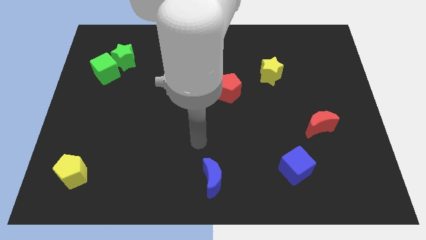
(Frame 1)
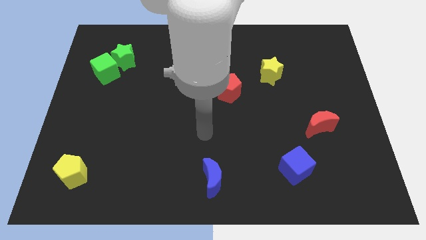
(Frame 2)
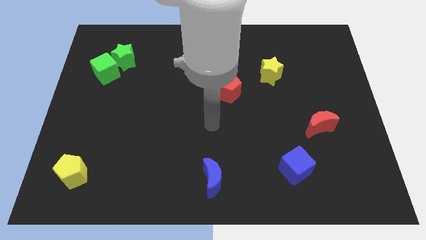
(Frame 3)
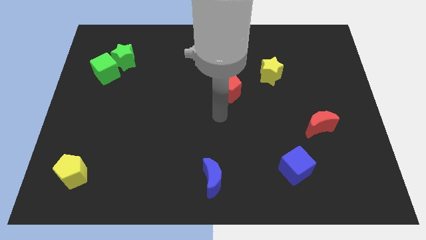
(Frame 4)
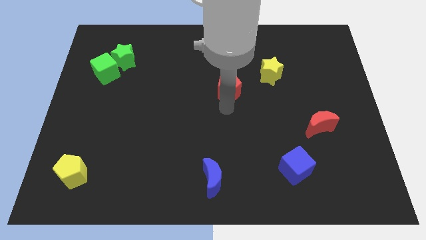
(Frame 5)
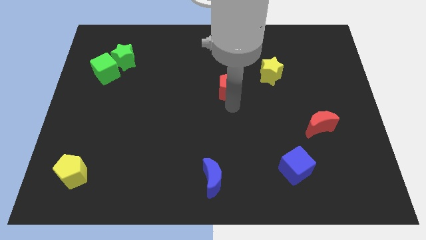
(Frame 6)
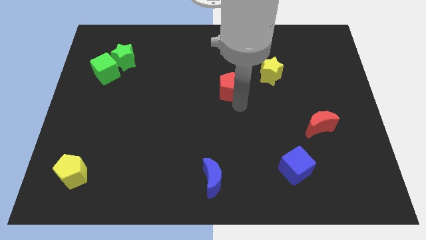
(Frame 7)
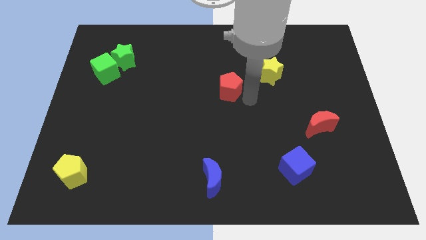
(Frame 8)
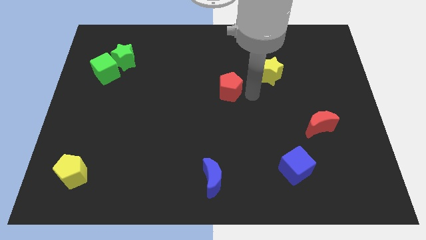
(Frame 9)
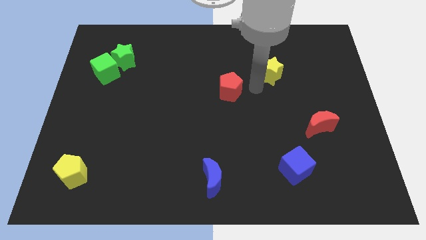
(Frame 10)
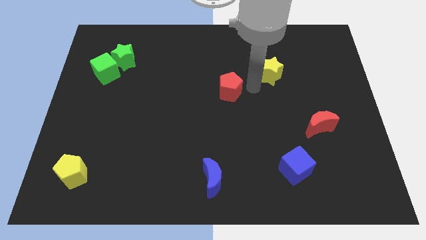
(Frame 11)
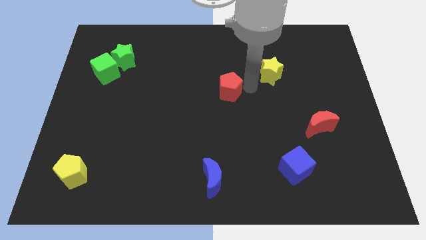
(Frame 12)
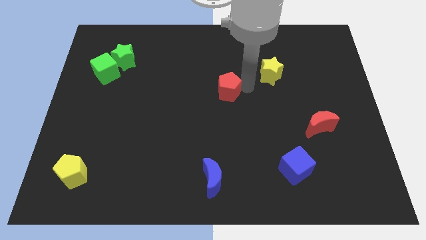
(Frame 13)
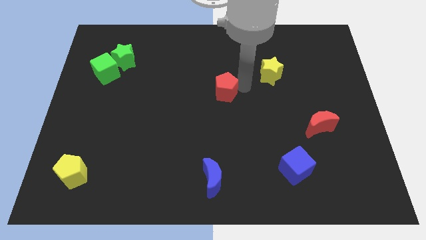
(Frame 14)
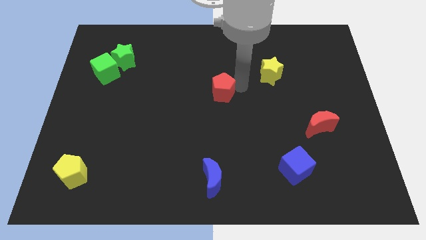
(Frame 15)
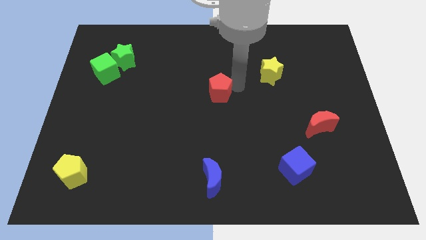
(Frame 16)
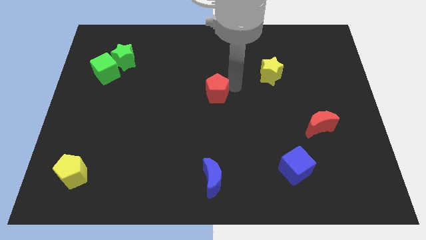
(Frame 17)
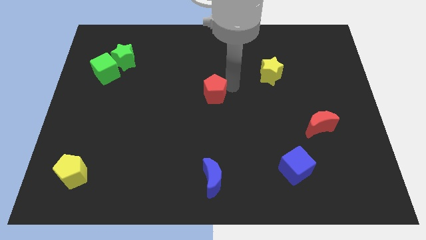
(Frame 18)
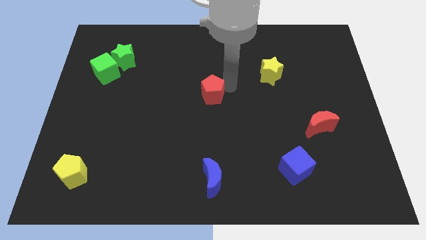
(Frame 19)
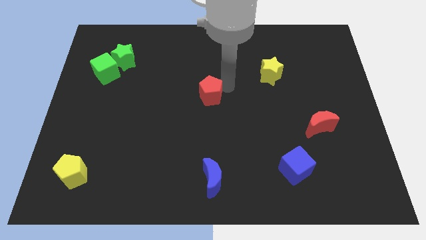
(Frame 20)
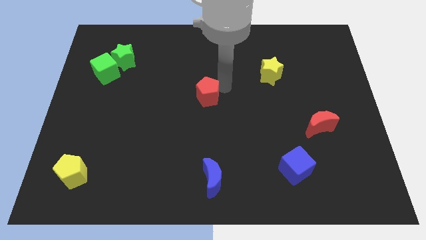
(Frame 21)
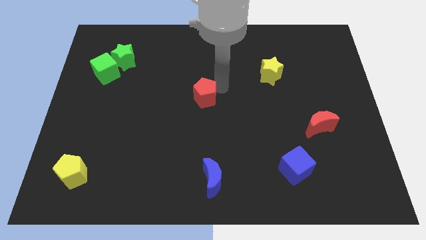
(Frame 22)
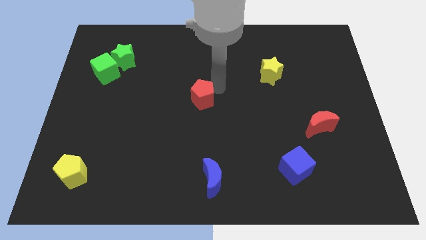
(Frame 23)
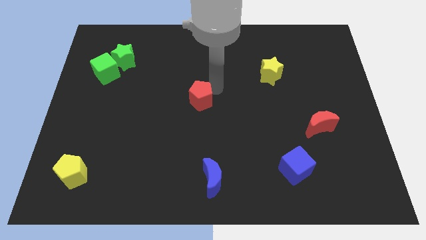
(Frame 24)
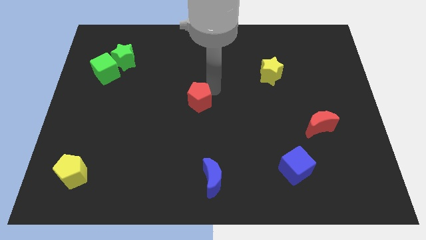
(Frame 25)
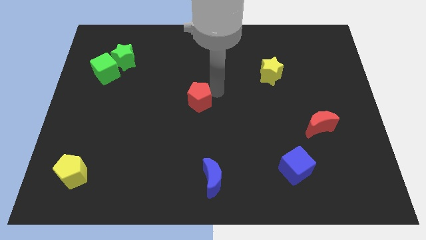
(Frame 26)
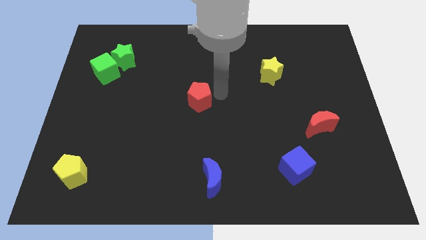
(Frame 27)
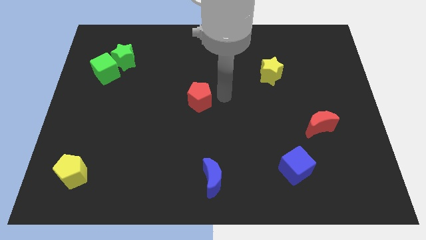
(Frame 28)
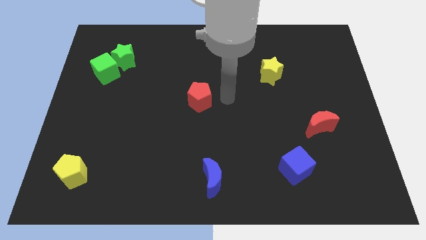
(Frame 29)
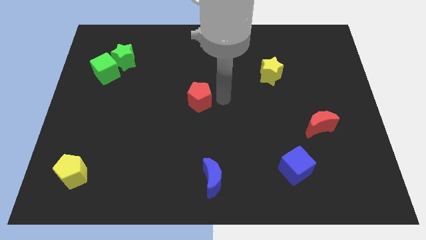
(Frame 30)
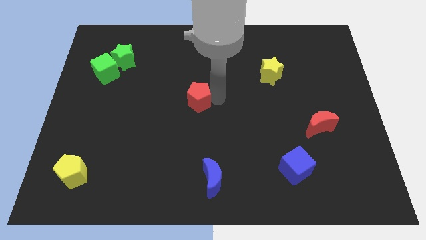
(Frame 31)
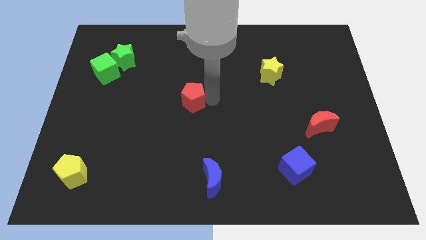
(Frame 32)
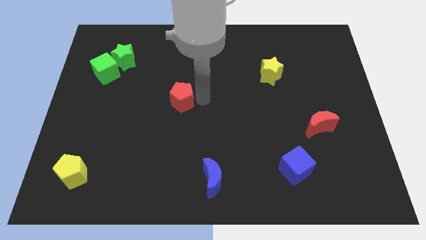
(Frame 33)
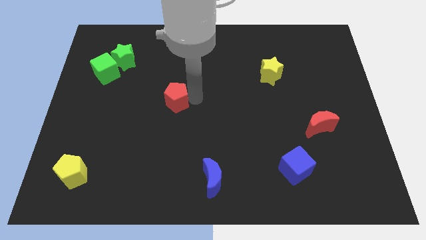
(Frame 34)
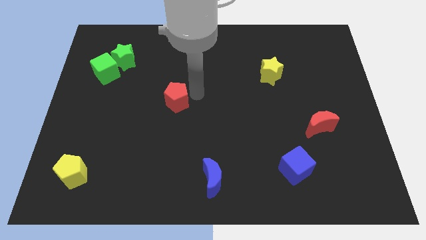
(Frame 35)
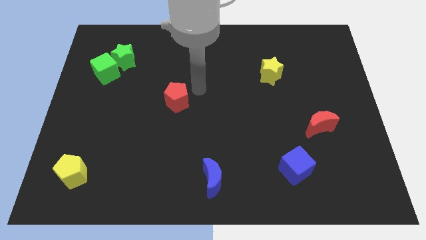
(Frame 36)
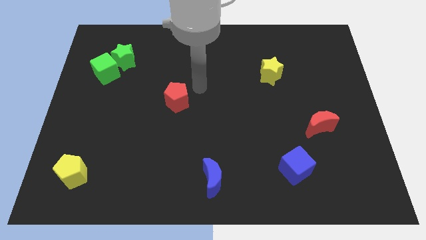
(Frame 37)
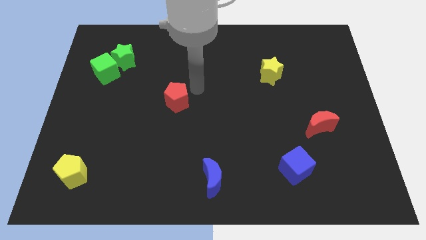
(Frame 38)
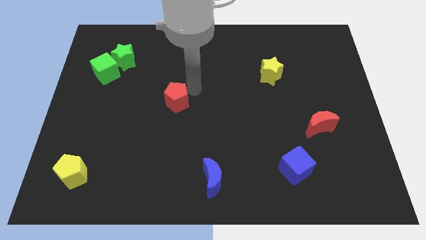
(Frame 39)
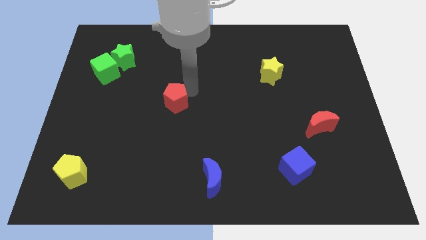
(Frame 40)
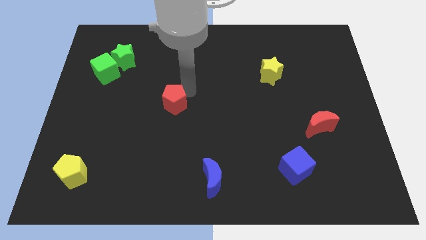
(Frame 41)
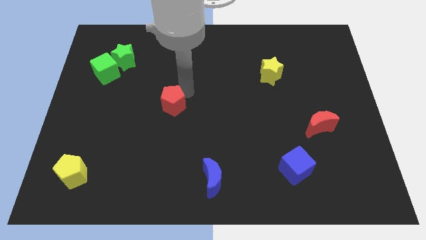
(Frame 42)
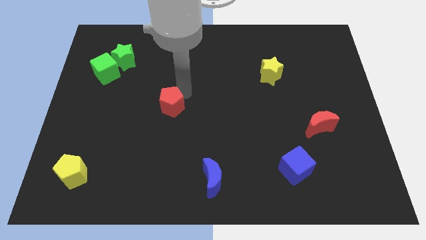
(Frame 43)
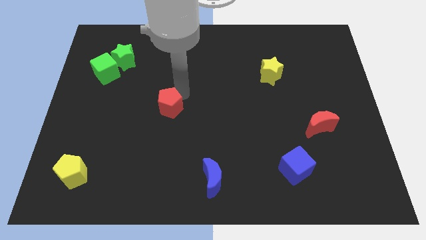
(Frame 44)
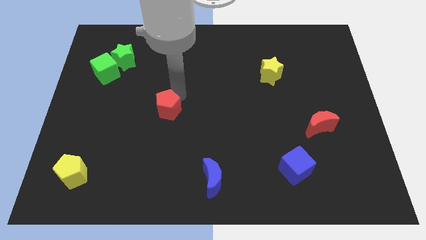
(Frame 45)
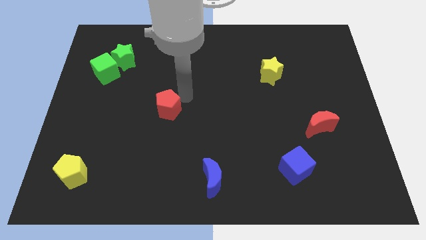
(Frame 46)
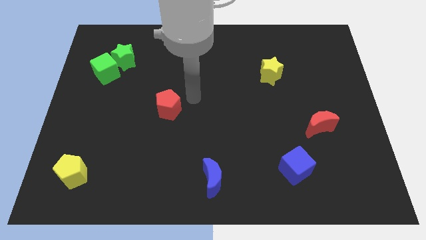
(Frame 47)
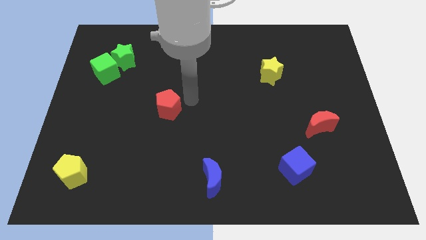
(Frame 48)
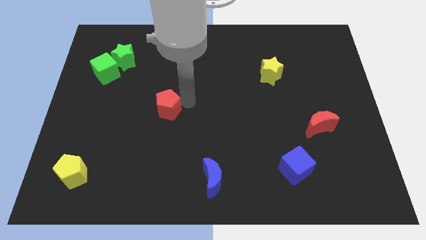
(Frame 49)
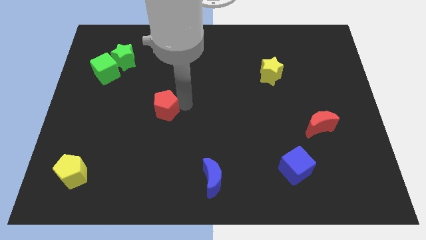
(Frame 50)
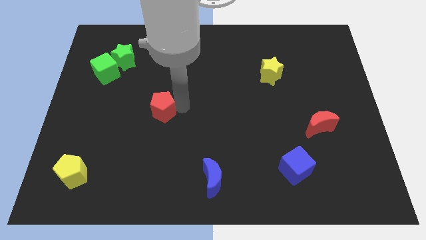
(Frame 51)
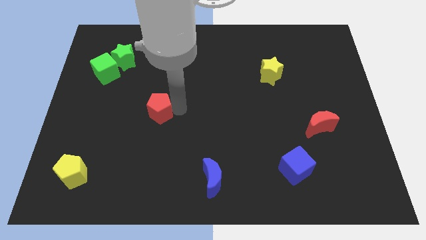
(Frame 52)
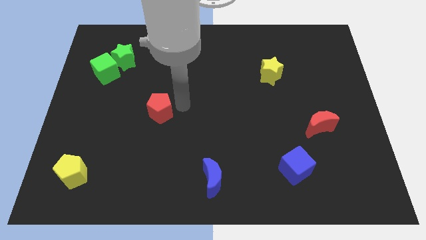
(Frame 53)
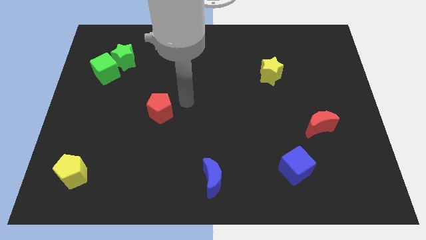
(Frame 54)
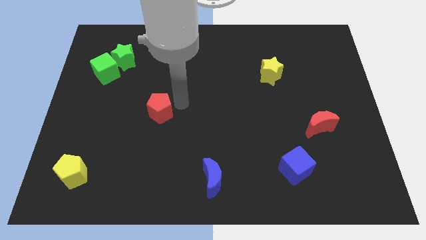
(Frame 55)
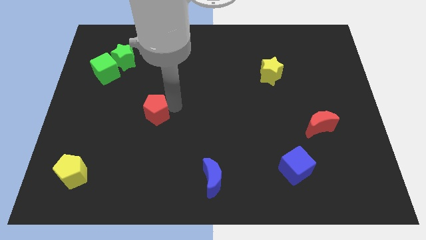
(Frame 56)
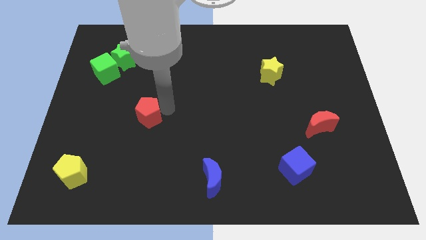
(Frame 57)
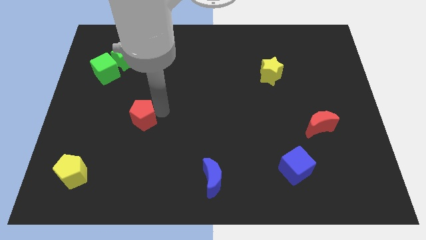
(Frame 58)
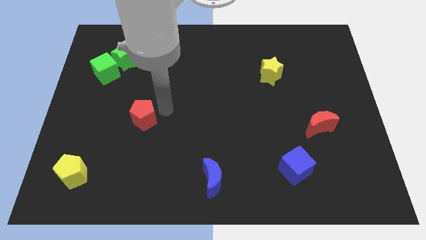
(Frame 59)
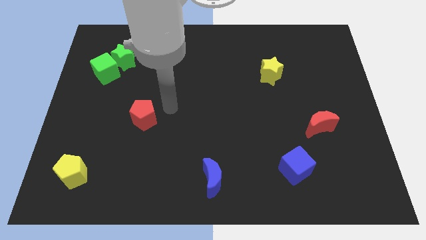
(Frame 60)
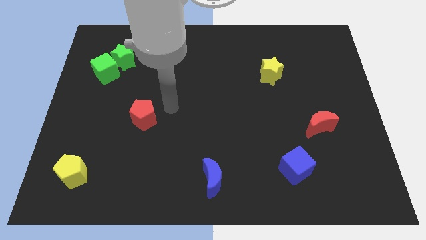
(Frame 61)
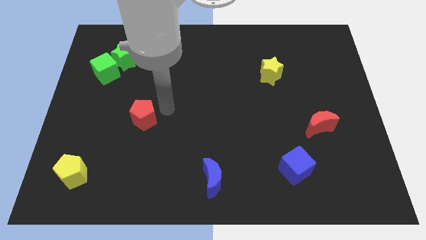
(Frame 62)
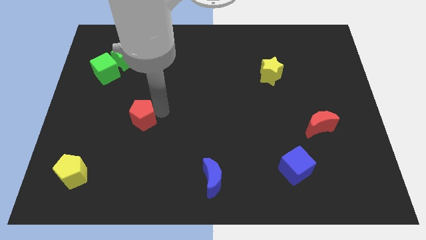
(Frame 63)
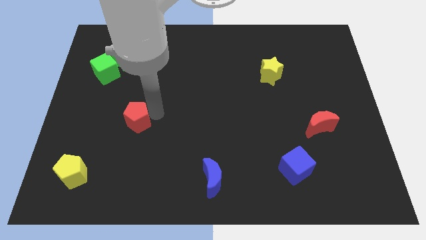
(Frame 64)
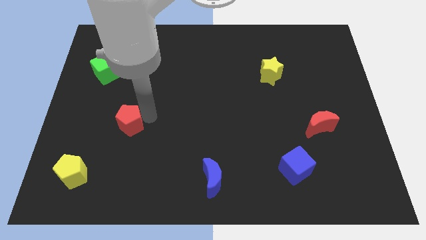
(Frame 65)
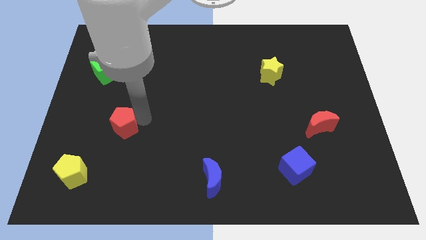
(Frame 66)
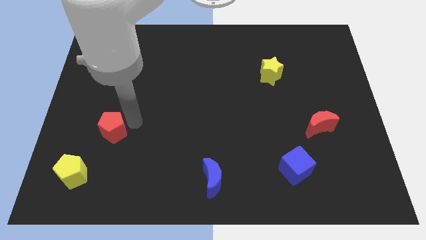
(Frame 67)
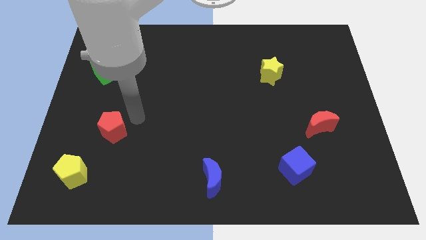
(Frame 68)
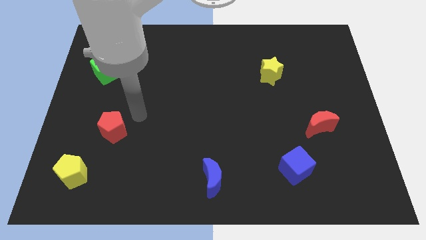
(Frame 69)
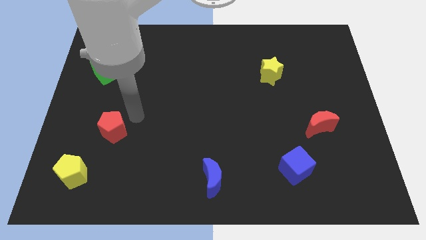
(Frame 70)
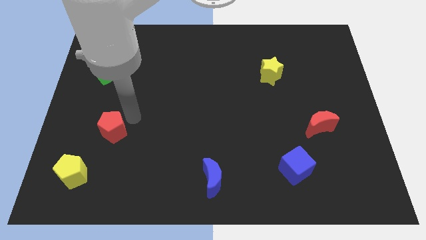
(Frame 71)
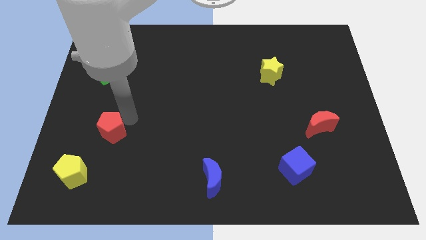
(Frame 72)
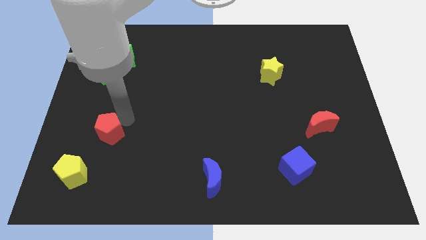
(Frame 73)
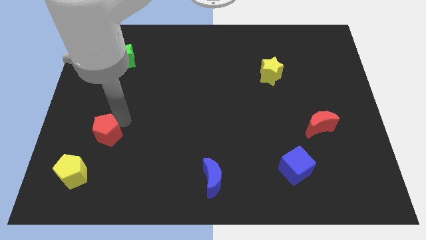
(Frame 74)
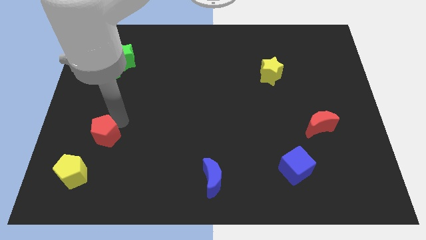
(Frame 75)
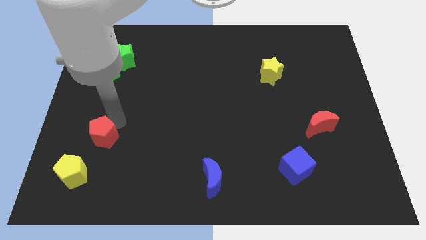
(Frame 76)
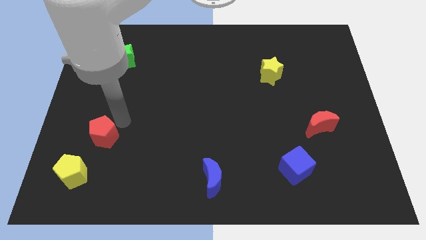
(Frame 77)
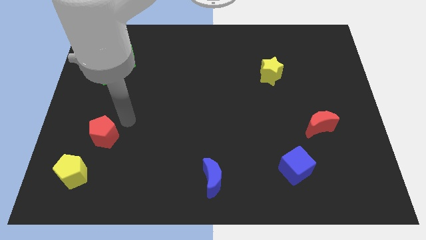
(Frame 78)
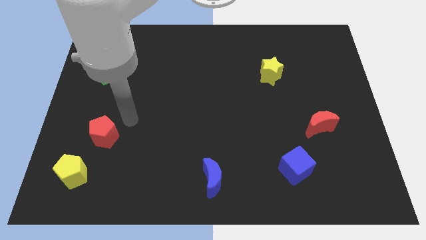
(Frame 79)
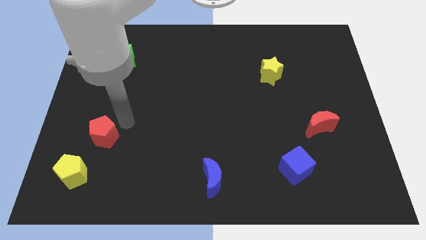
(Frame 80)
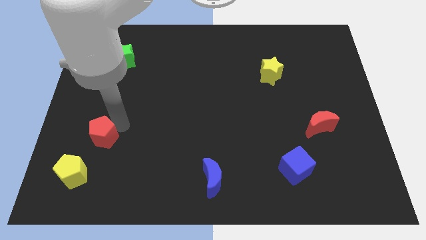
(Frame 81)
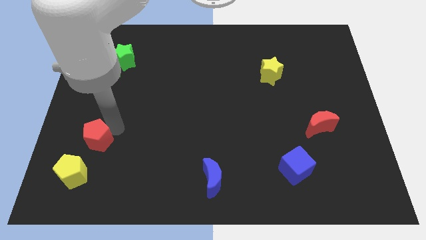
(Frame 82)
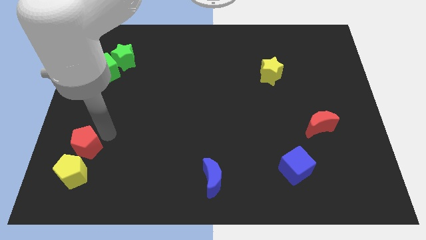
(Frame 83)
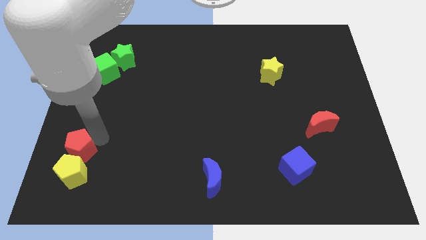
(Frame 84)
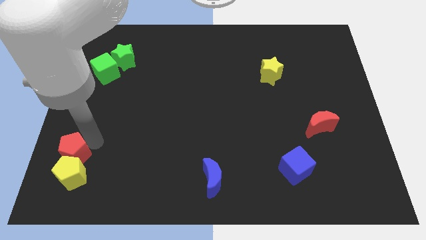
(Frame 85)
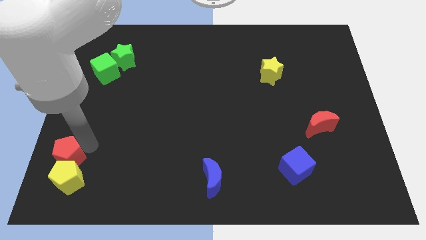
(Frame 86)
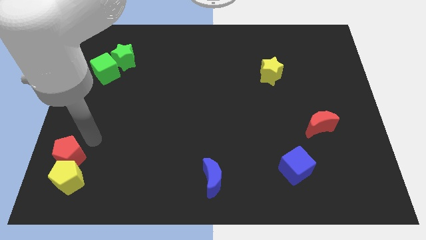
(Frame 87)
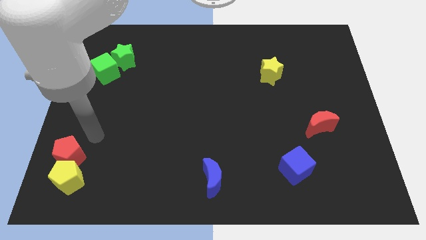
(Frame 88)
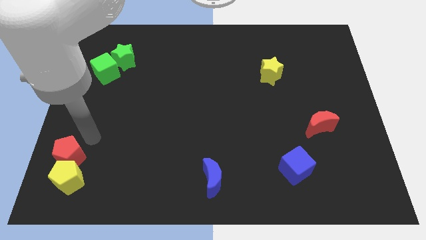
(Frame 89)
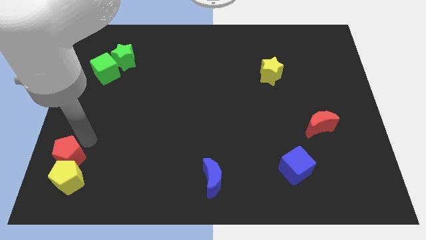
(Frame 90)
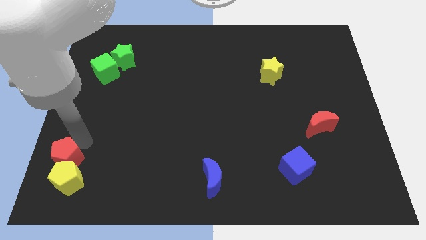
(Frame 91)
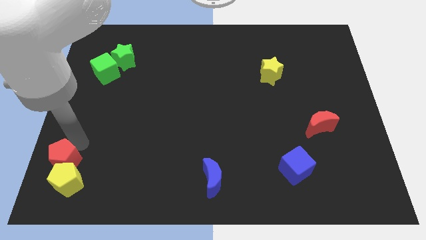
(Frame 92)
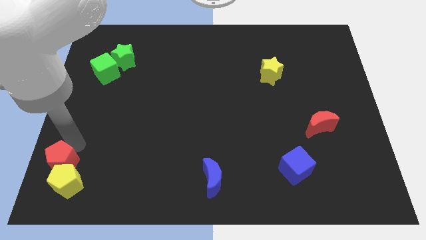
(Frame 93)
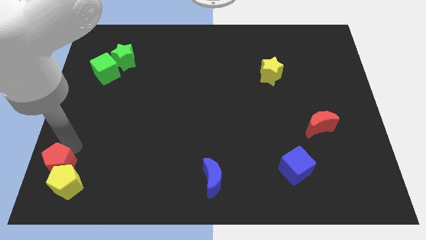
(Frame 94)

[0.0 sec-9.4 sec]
put the red pentagon to the bottom left of the board
